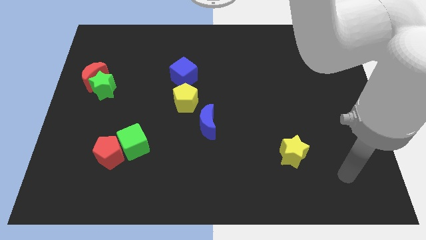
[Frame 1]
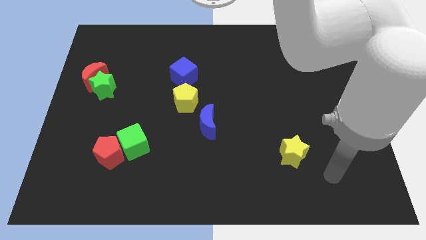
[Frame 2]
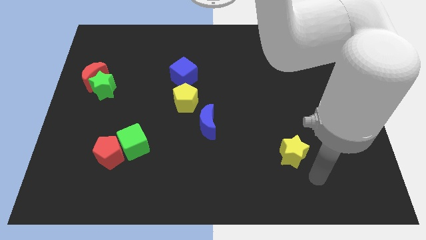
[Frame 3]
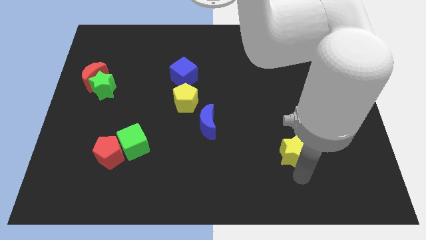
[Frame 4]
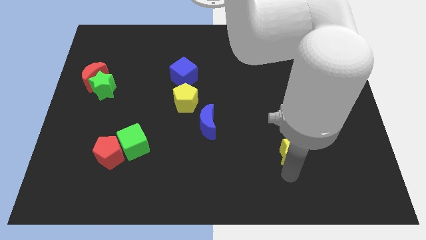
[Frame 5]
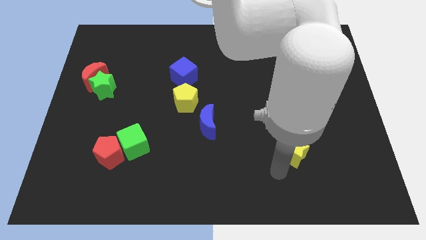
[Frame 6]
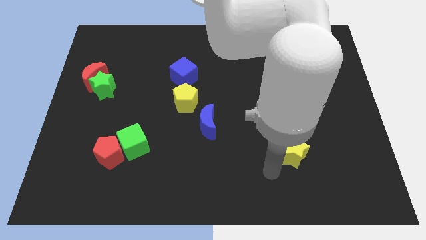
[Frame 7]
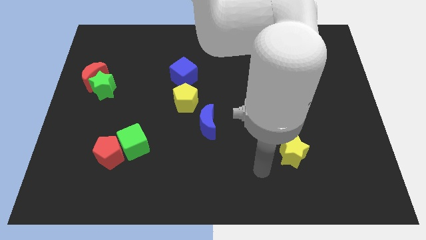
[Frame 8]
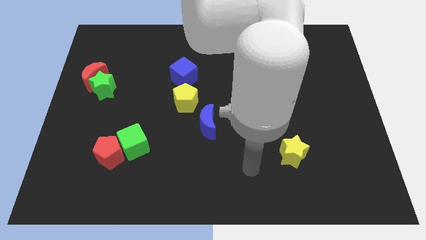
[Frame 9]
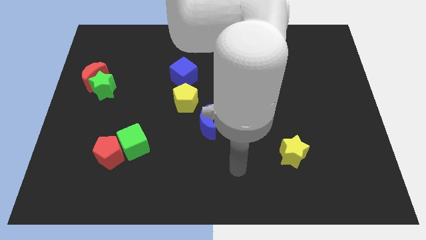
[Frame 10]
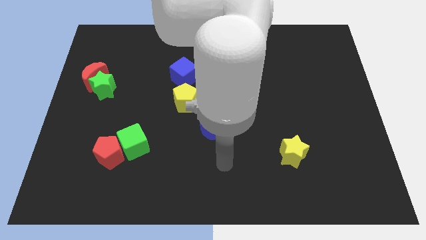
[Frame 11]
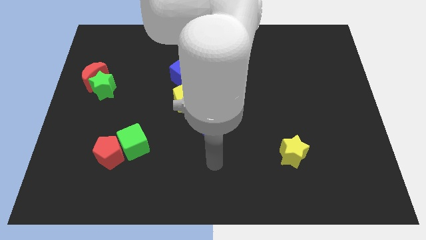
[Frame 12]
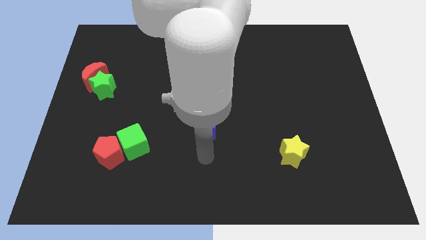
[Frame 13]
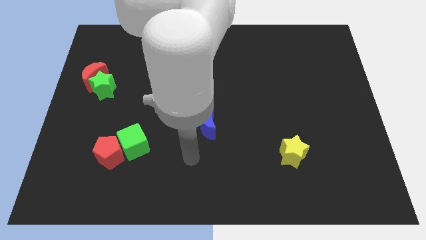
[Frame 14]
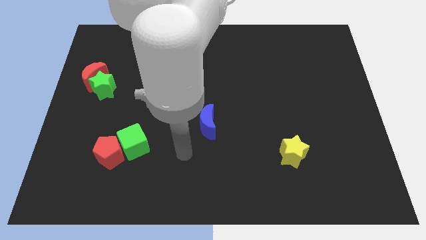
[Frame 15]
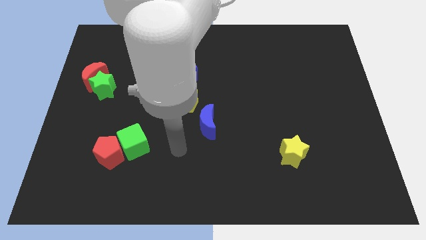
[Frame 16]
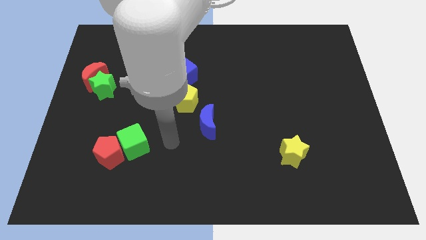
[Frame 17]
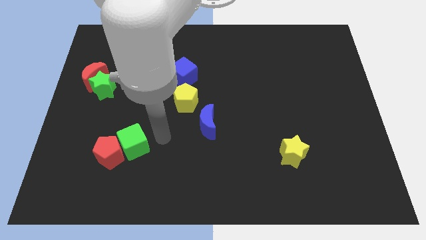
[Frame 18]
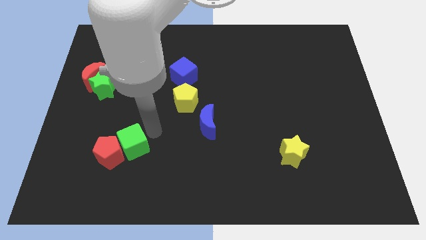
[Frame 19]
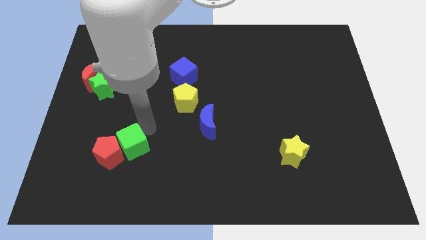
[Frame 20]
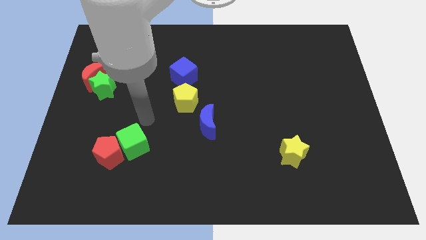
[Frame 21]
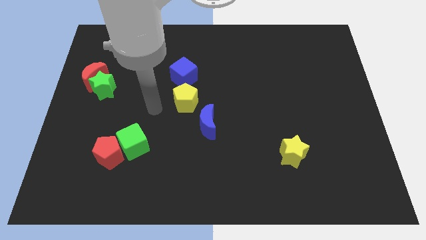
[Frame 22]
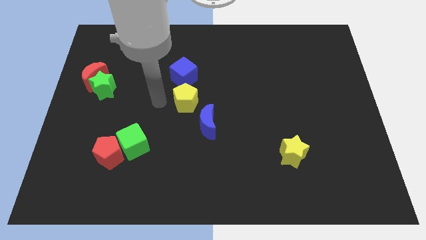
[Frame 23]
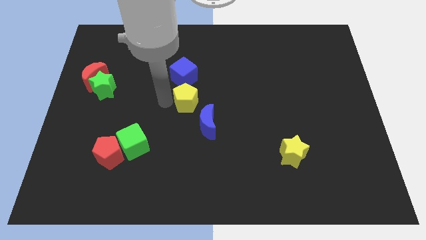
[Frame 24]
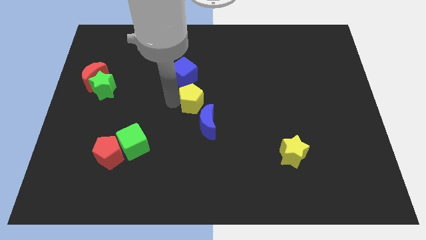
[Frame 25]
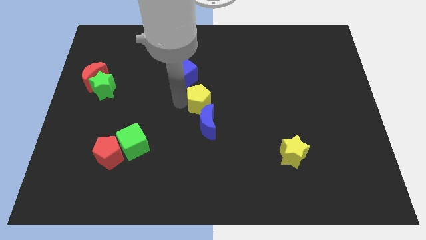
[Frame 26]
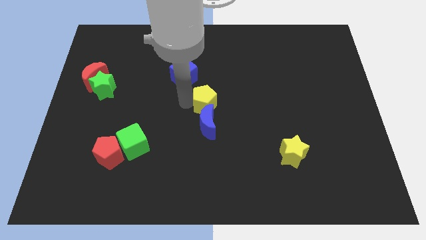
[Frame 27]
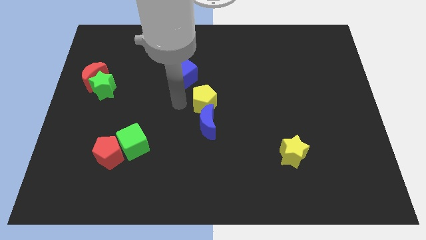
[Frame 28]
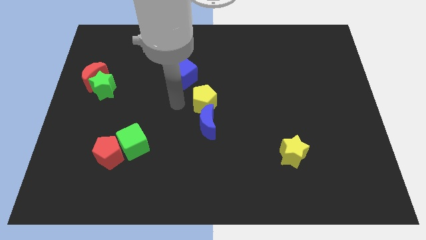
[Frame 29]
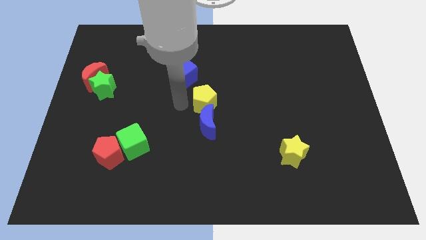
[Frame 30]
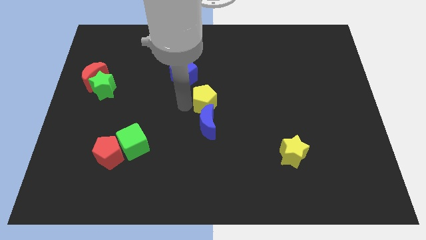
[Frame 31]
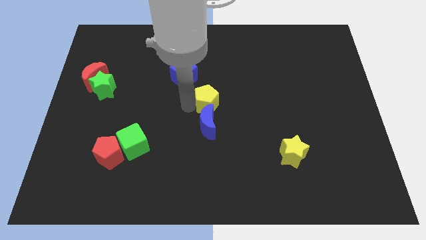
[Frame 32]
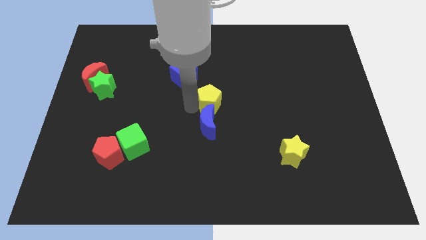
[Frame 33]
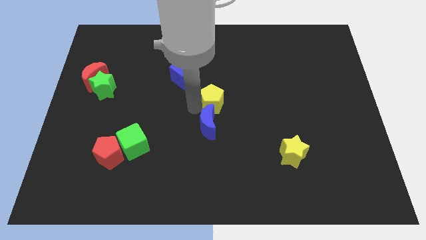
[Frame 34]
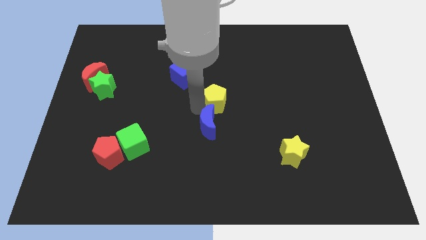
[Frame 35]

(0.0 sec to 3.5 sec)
slide the yellow pentagon a little bit right

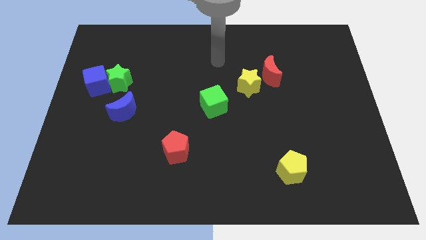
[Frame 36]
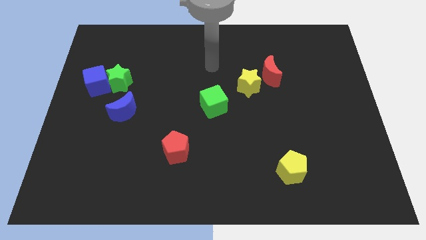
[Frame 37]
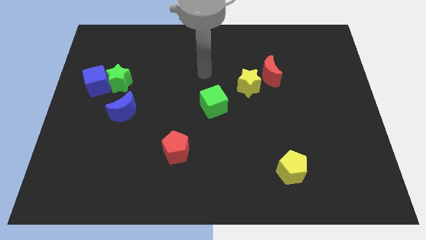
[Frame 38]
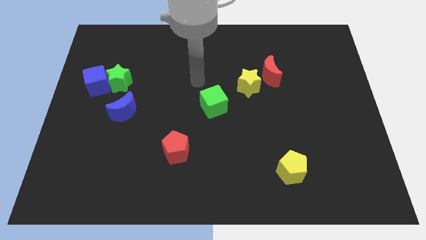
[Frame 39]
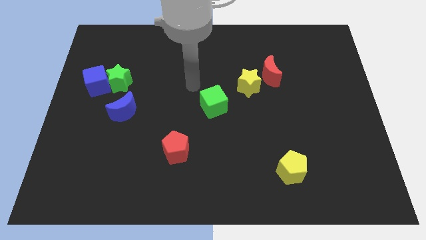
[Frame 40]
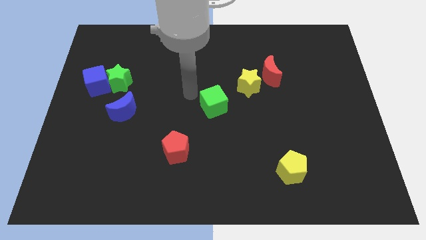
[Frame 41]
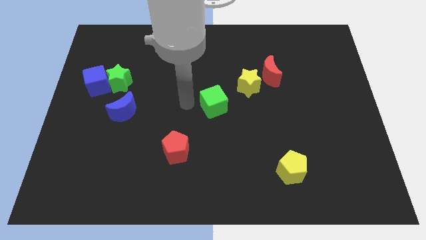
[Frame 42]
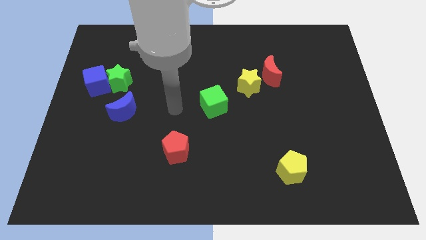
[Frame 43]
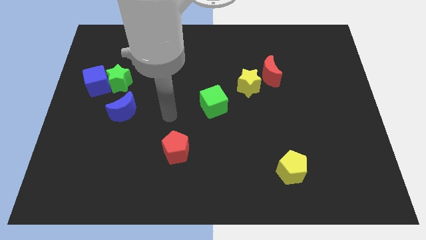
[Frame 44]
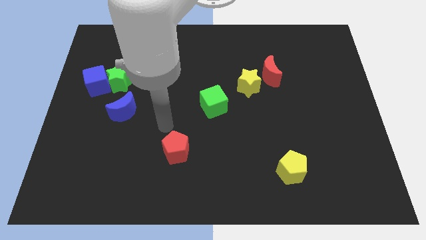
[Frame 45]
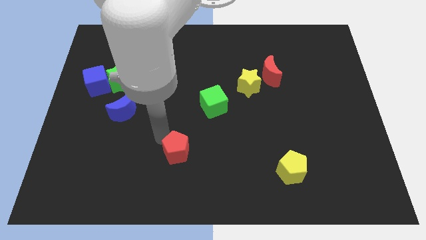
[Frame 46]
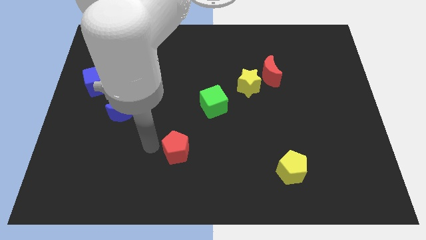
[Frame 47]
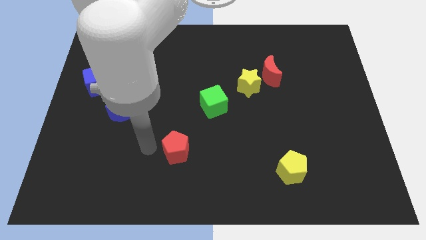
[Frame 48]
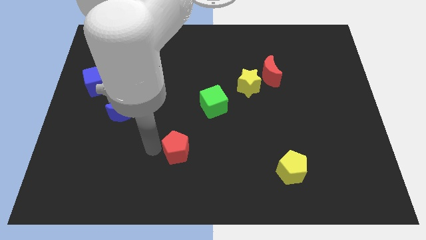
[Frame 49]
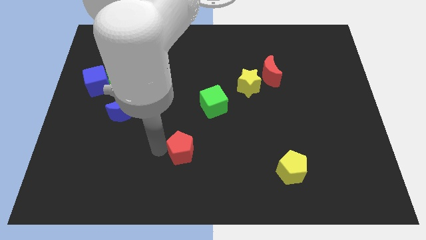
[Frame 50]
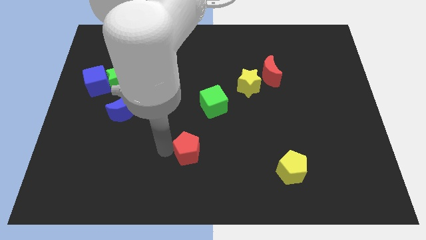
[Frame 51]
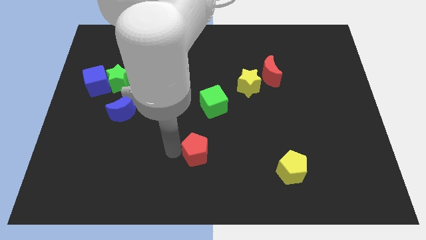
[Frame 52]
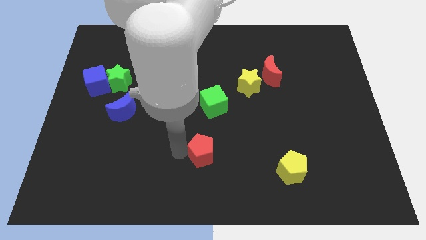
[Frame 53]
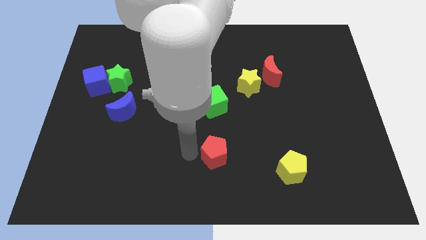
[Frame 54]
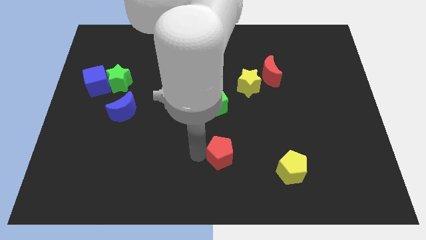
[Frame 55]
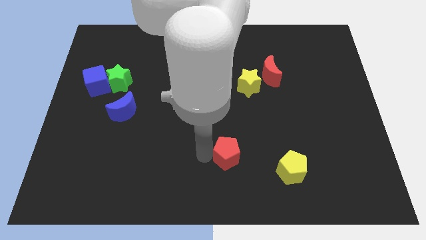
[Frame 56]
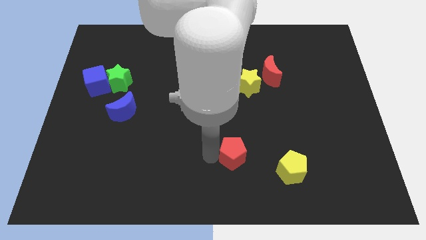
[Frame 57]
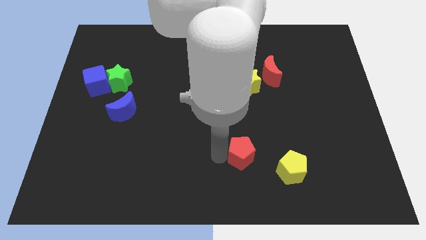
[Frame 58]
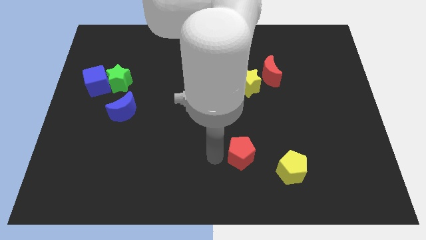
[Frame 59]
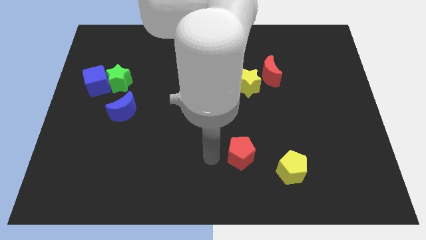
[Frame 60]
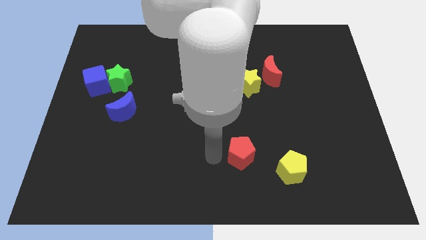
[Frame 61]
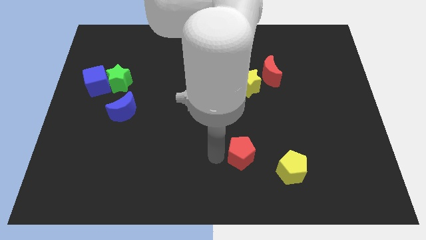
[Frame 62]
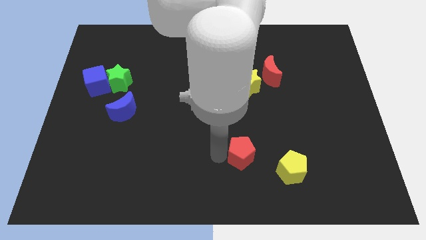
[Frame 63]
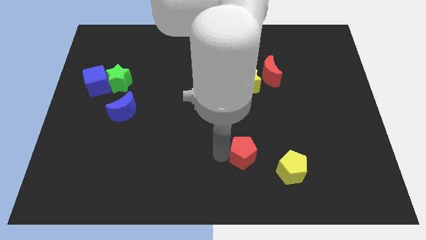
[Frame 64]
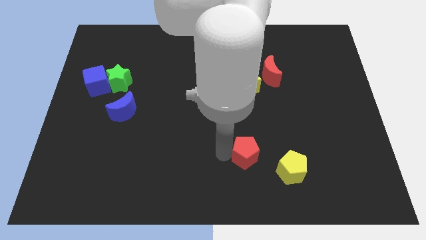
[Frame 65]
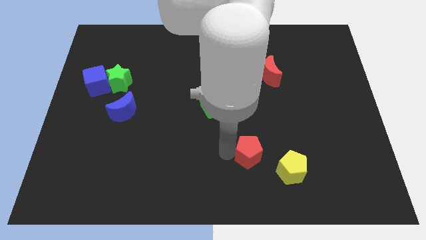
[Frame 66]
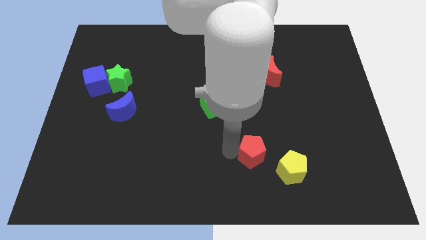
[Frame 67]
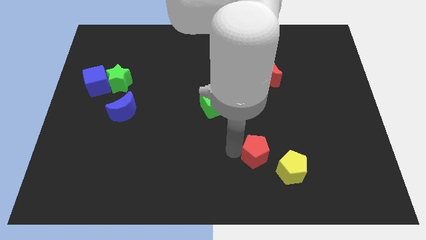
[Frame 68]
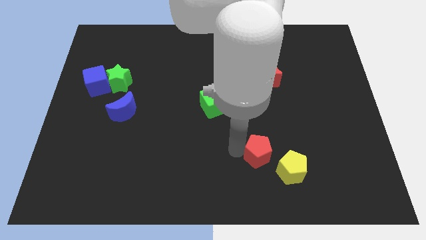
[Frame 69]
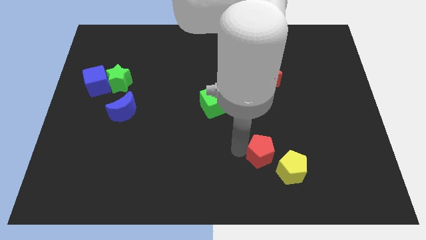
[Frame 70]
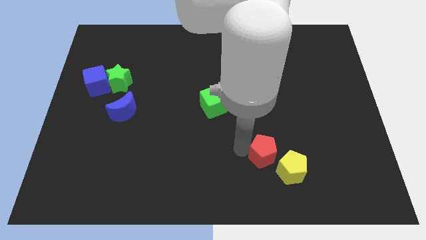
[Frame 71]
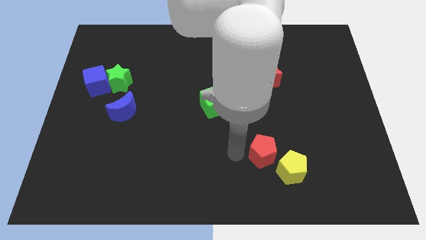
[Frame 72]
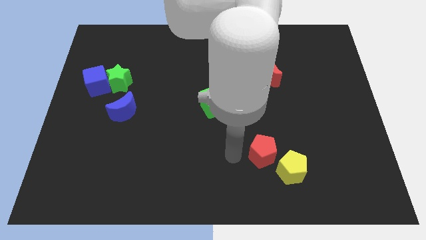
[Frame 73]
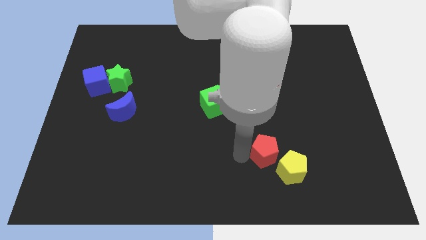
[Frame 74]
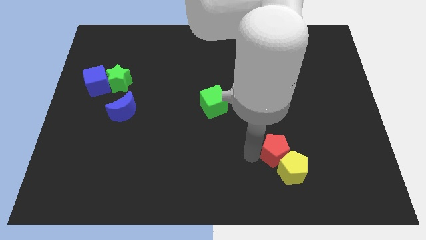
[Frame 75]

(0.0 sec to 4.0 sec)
slide the red pentagon right

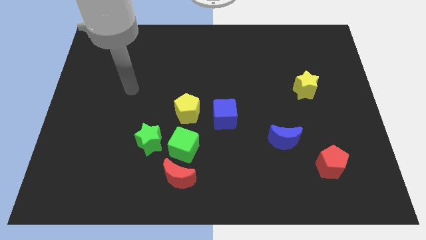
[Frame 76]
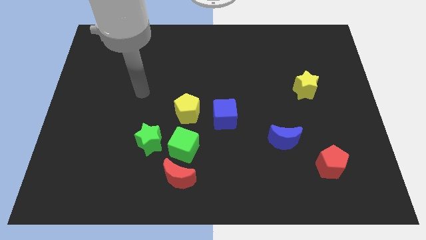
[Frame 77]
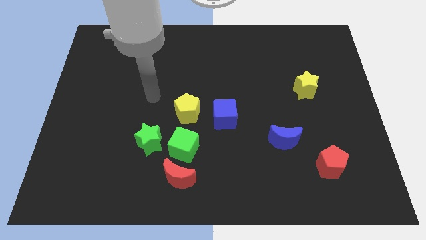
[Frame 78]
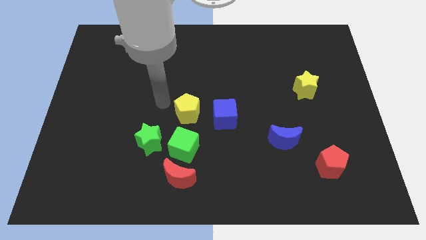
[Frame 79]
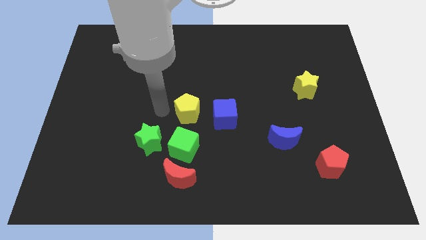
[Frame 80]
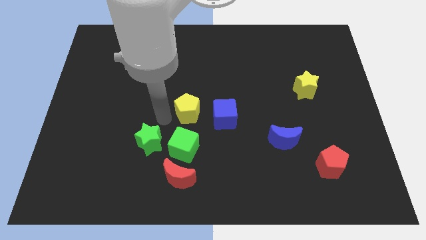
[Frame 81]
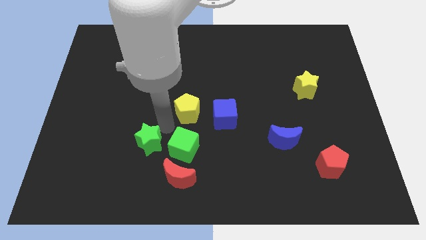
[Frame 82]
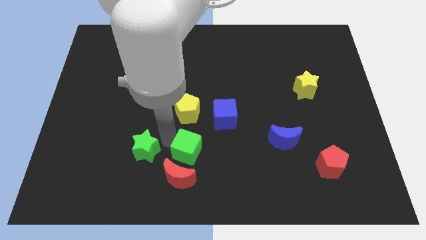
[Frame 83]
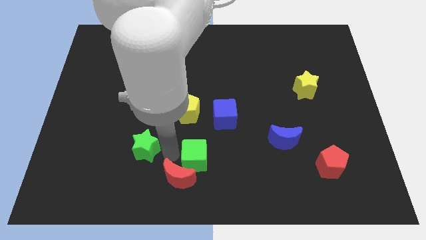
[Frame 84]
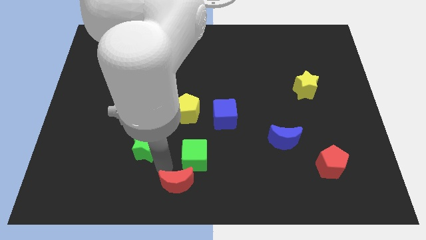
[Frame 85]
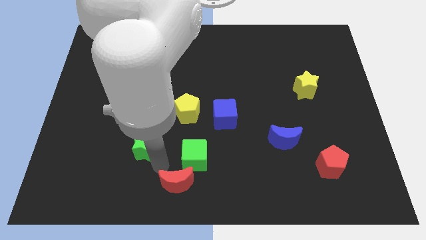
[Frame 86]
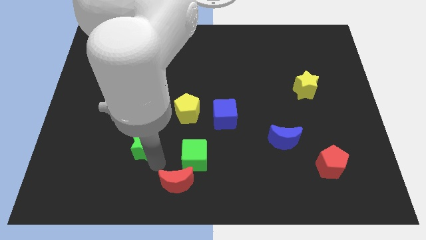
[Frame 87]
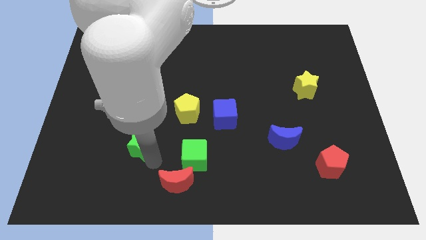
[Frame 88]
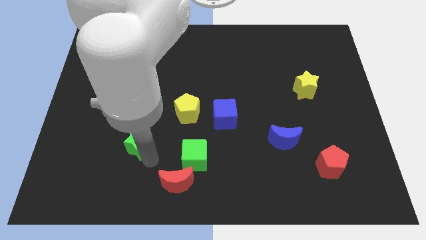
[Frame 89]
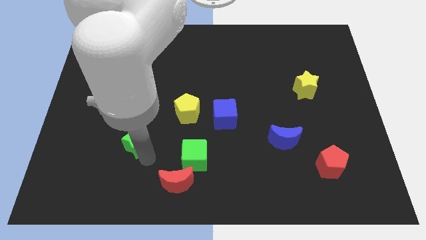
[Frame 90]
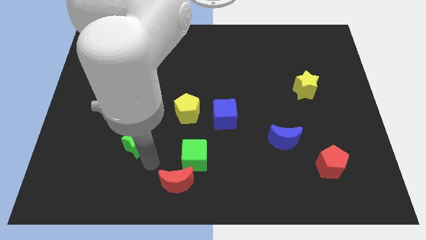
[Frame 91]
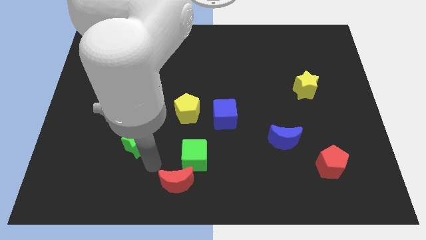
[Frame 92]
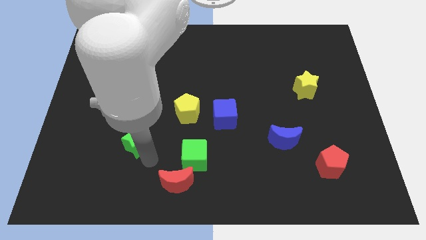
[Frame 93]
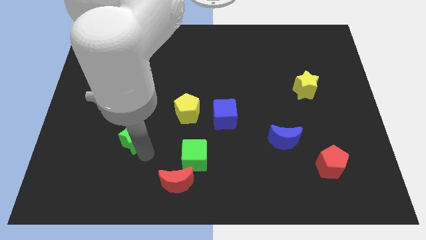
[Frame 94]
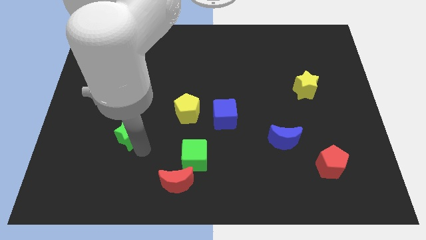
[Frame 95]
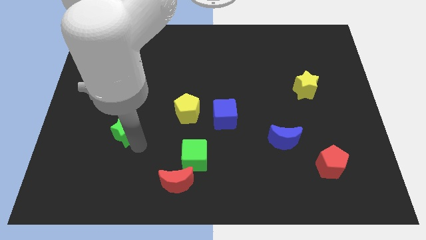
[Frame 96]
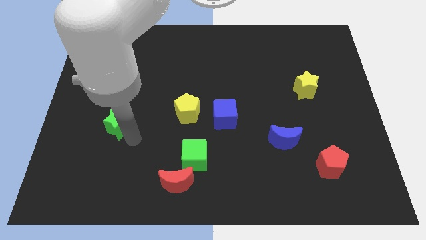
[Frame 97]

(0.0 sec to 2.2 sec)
move the green star a bit diagonally upwards and to the left
